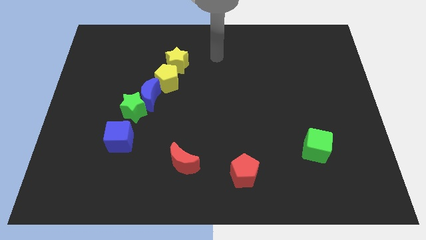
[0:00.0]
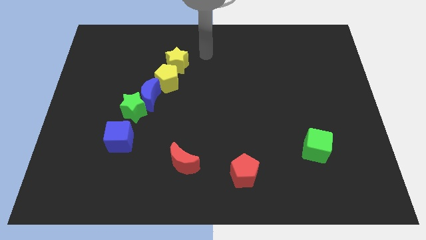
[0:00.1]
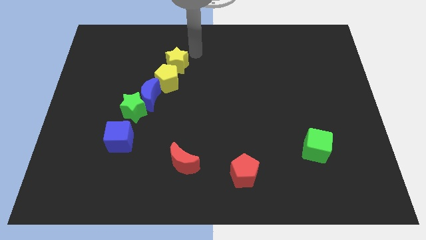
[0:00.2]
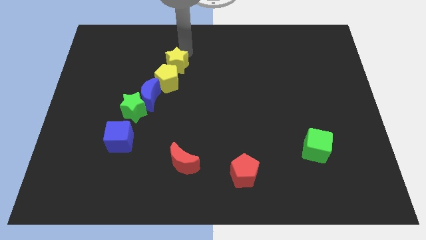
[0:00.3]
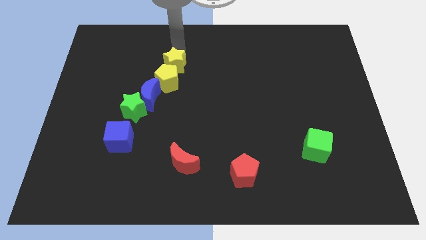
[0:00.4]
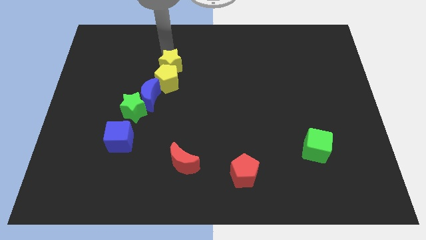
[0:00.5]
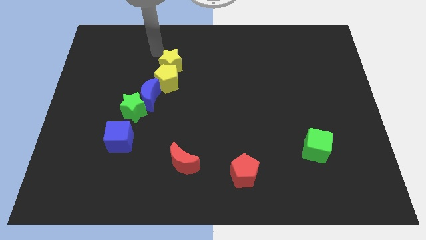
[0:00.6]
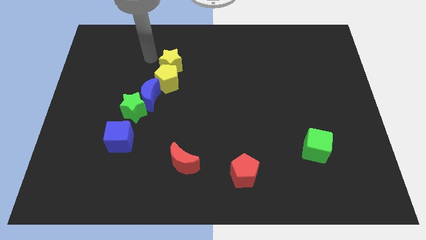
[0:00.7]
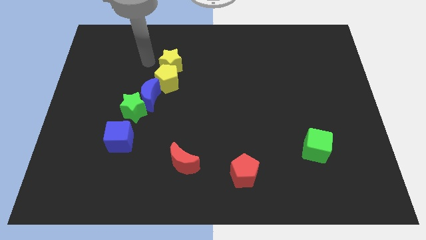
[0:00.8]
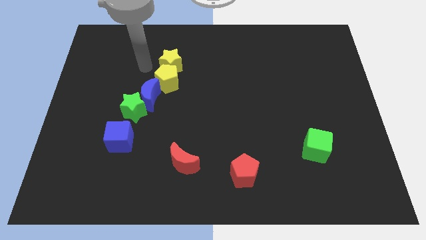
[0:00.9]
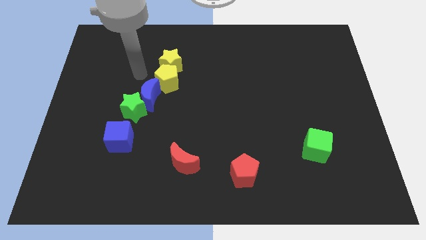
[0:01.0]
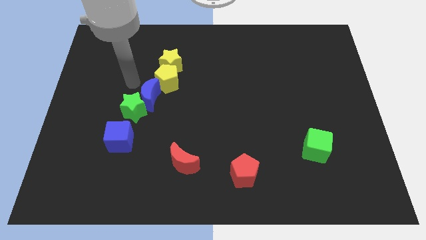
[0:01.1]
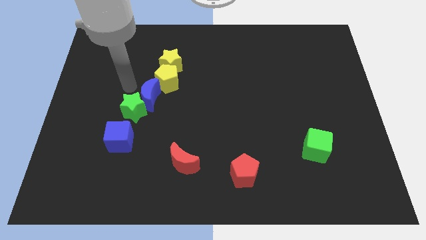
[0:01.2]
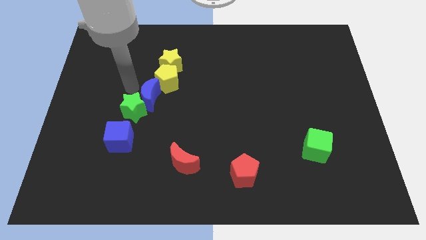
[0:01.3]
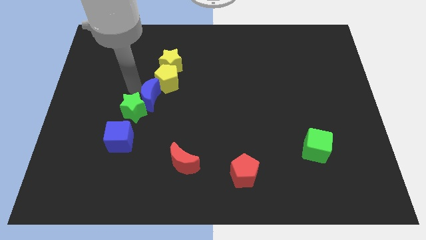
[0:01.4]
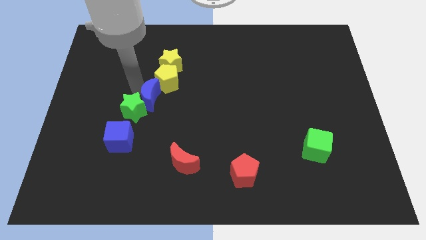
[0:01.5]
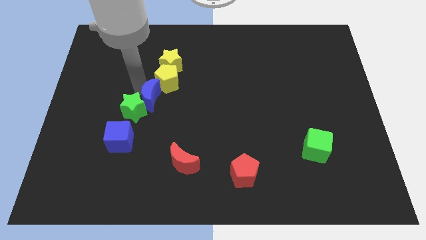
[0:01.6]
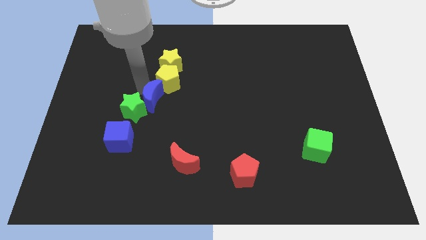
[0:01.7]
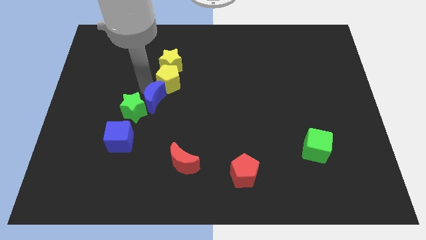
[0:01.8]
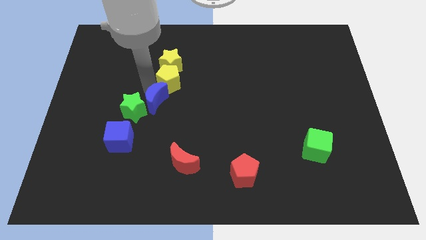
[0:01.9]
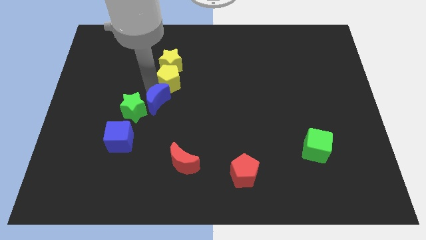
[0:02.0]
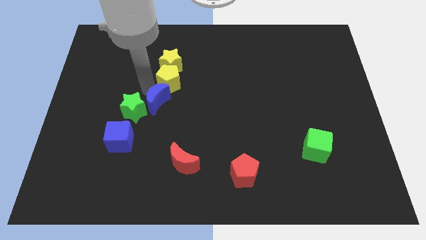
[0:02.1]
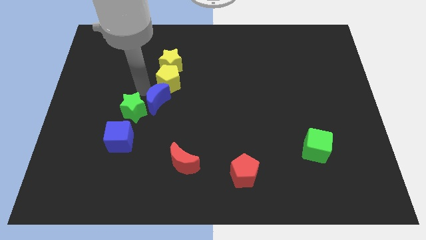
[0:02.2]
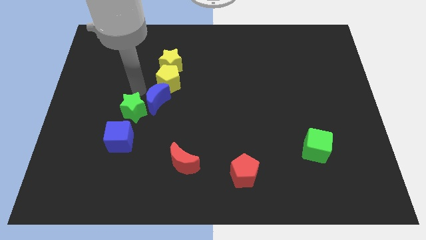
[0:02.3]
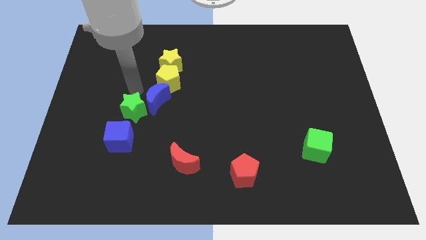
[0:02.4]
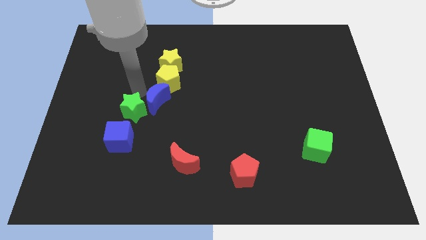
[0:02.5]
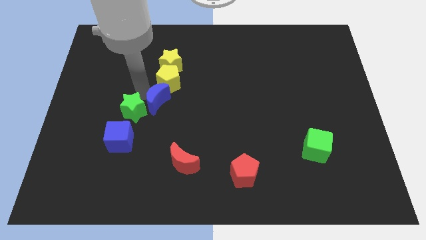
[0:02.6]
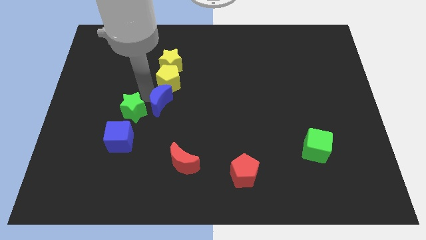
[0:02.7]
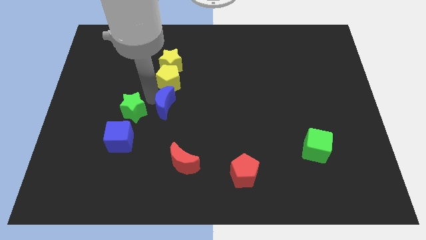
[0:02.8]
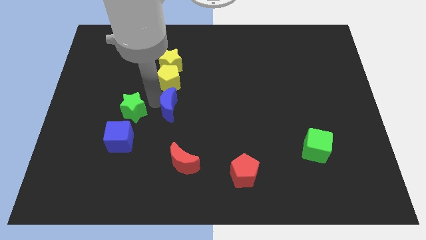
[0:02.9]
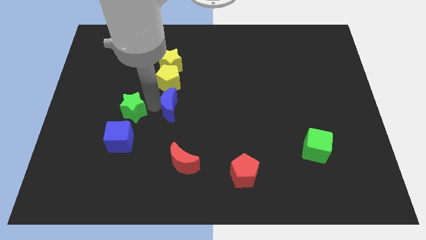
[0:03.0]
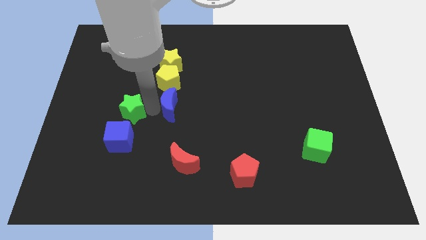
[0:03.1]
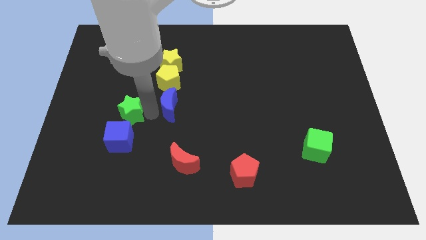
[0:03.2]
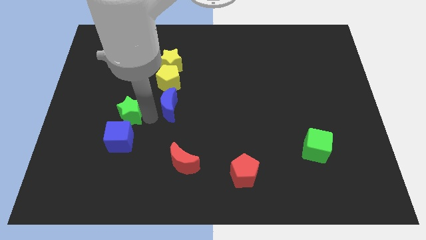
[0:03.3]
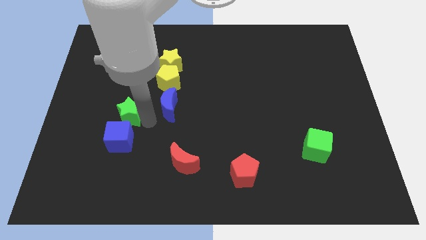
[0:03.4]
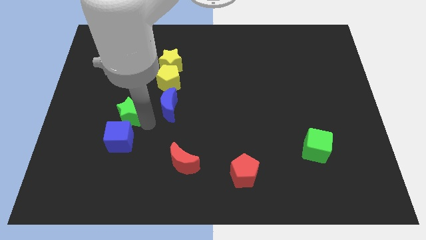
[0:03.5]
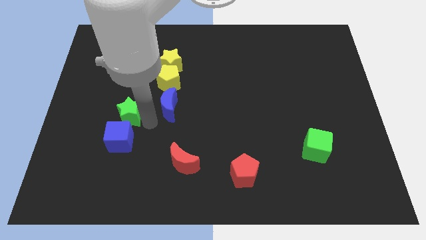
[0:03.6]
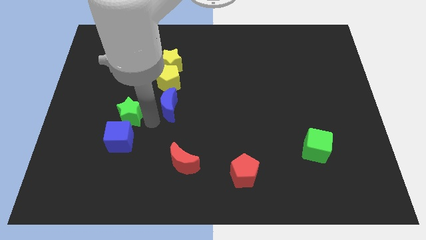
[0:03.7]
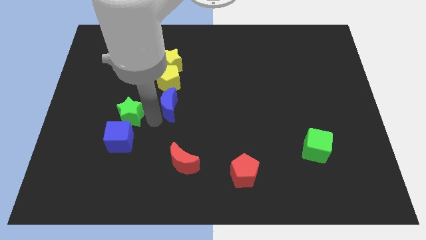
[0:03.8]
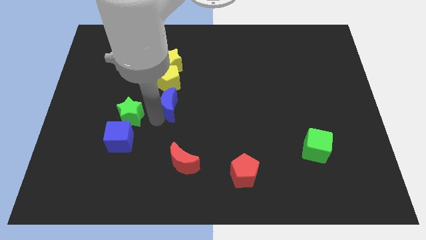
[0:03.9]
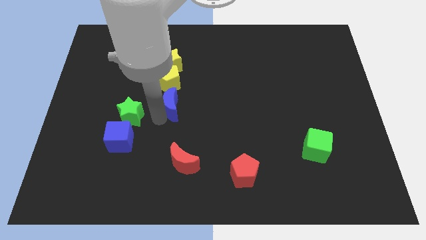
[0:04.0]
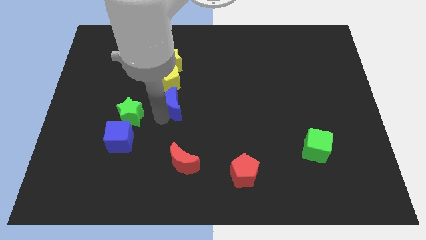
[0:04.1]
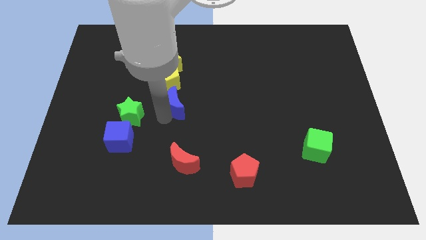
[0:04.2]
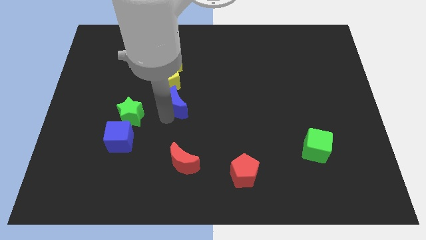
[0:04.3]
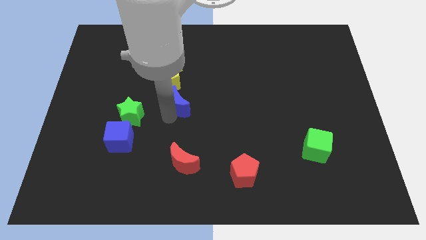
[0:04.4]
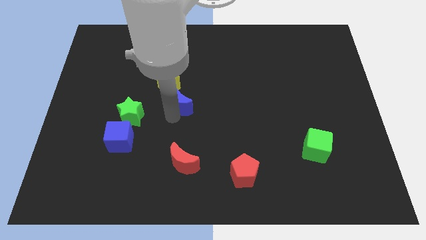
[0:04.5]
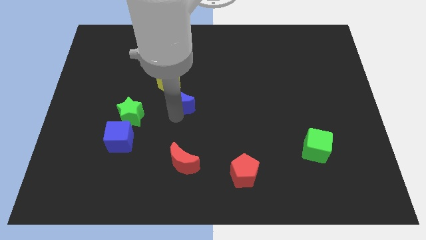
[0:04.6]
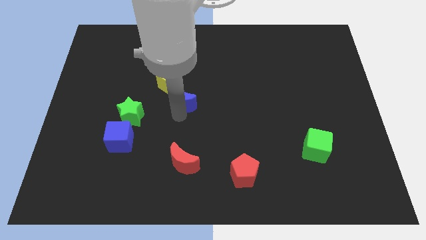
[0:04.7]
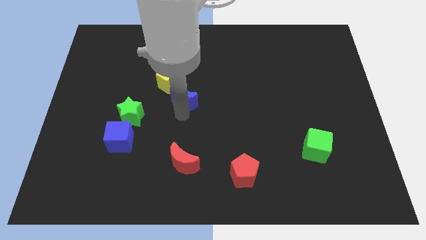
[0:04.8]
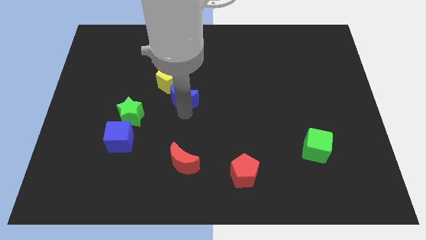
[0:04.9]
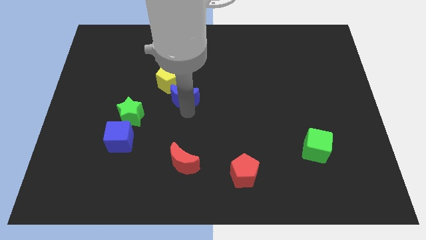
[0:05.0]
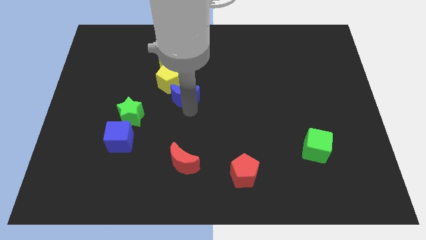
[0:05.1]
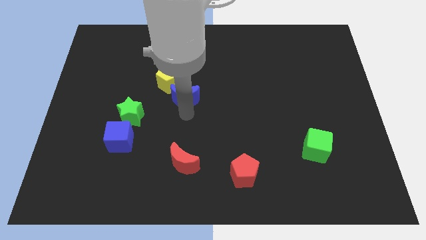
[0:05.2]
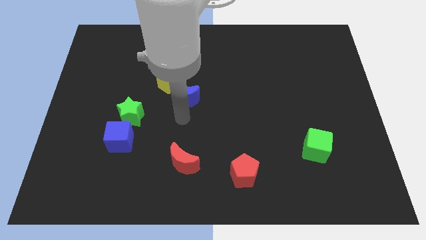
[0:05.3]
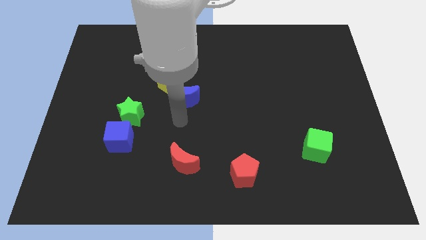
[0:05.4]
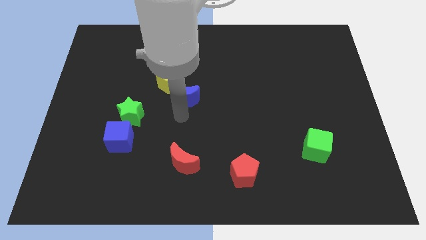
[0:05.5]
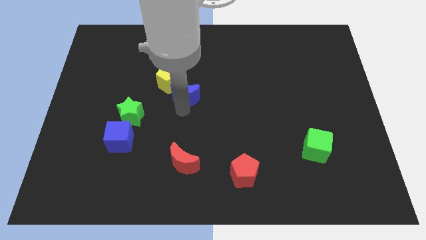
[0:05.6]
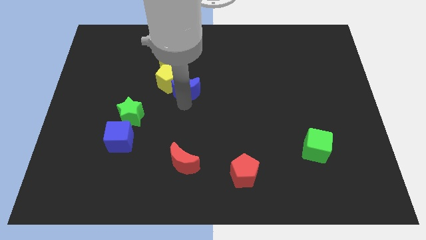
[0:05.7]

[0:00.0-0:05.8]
push the blue moon to the bottom right side of the yellow star

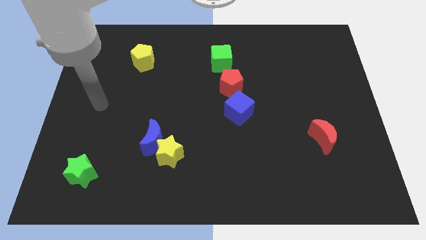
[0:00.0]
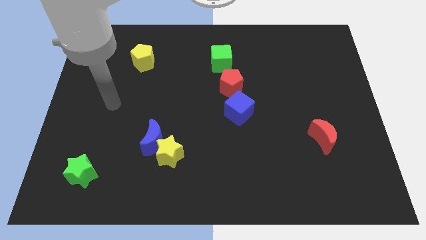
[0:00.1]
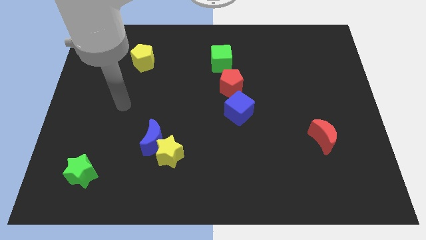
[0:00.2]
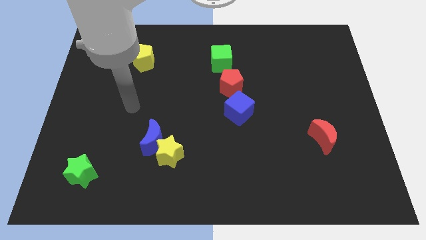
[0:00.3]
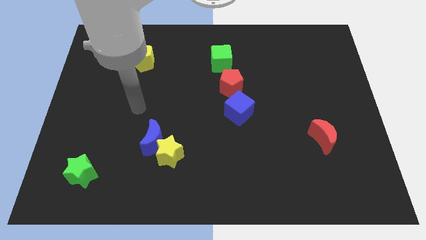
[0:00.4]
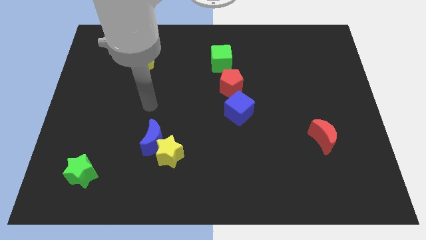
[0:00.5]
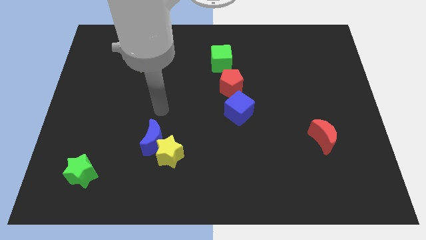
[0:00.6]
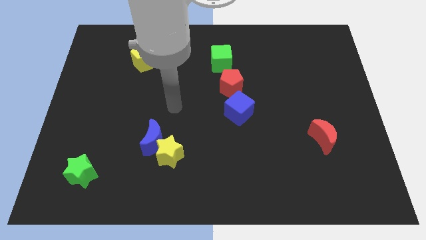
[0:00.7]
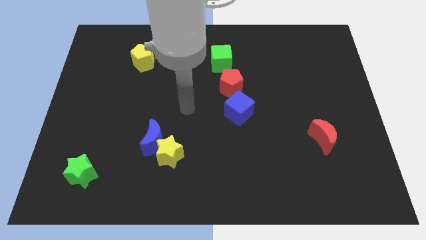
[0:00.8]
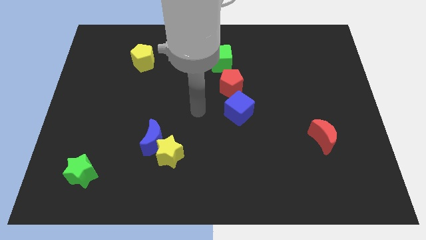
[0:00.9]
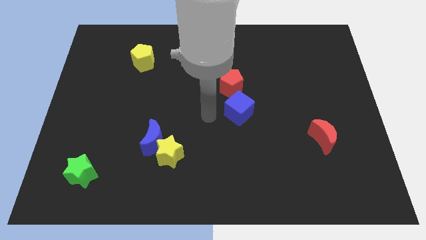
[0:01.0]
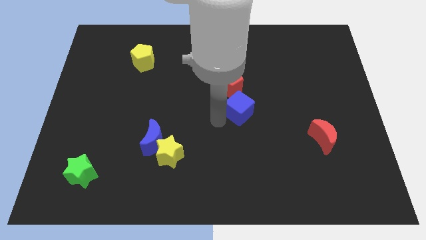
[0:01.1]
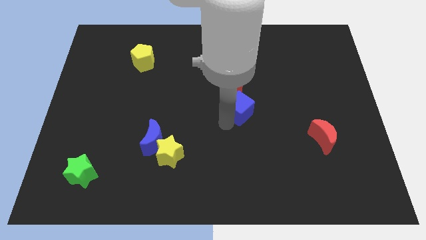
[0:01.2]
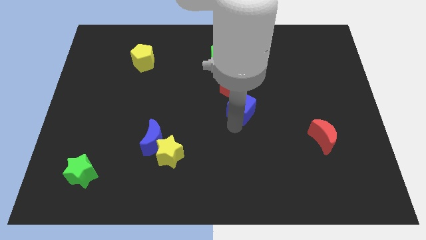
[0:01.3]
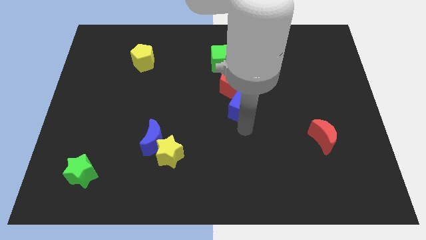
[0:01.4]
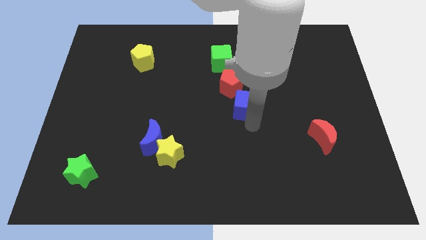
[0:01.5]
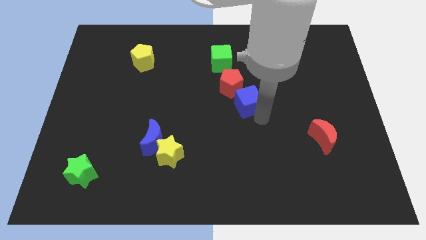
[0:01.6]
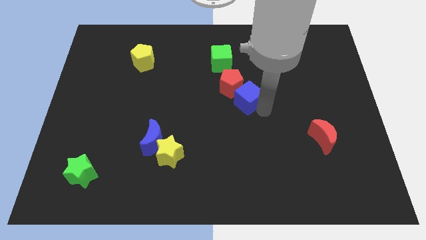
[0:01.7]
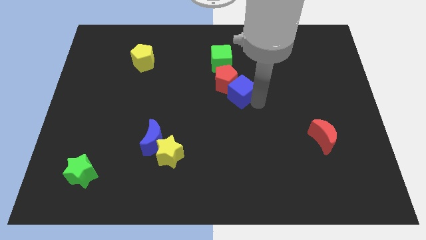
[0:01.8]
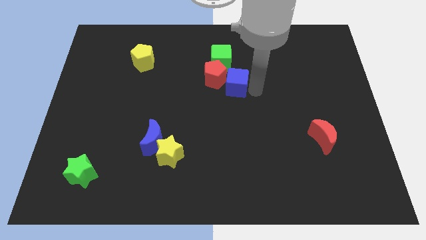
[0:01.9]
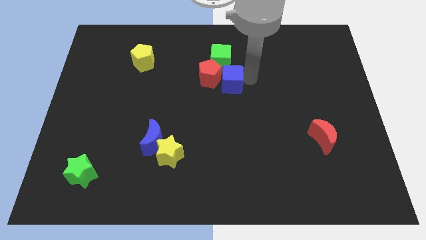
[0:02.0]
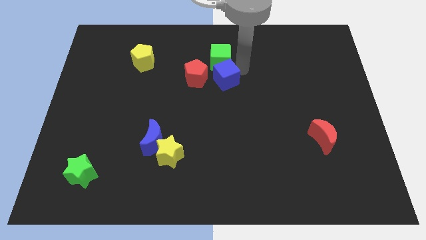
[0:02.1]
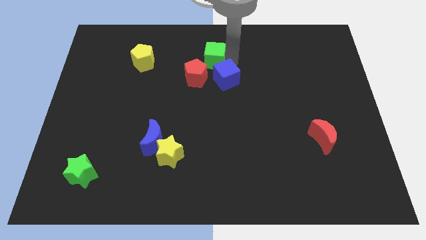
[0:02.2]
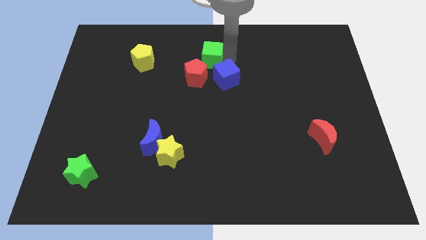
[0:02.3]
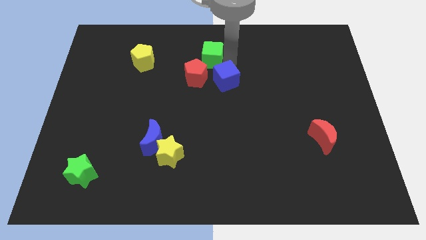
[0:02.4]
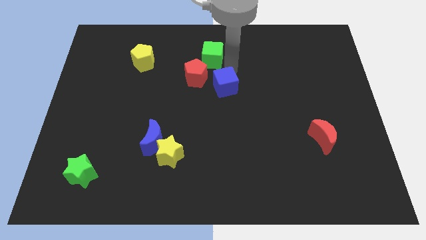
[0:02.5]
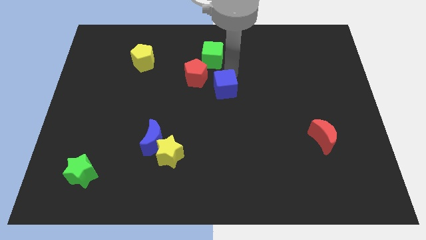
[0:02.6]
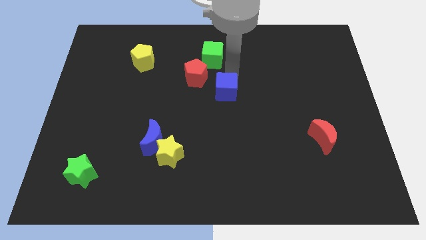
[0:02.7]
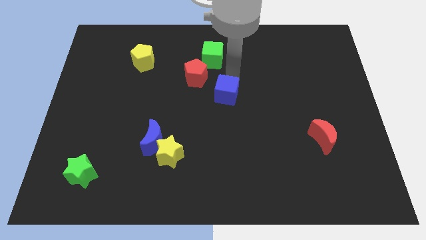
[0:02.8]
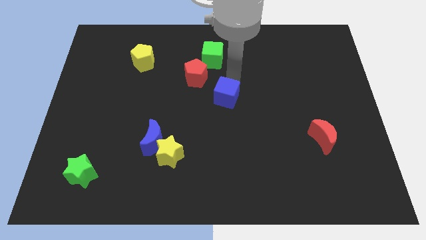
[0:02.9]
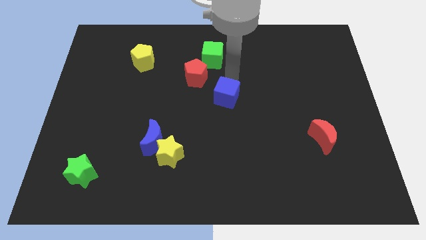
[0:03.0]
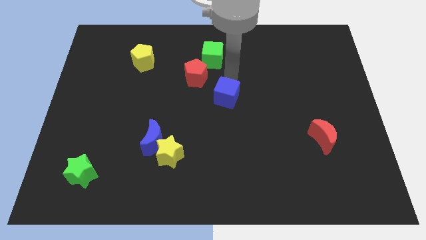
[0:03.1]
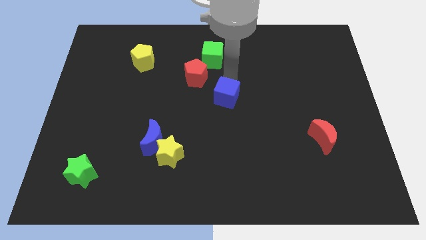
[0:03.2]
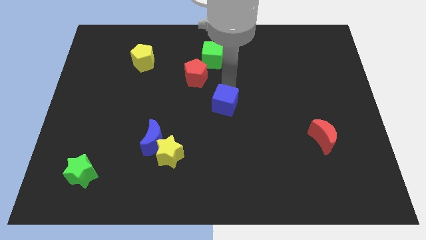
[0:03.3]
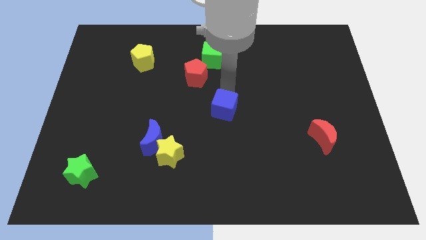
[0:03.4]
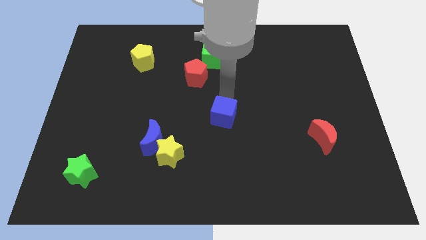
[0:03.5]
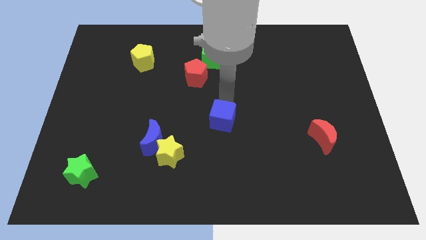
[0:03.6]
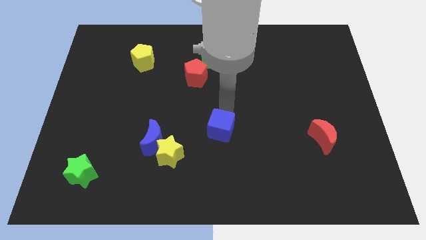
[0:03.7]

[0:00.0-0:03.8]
slide the blue cube just right of the blue moon
